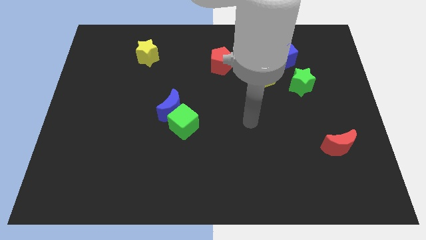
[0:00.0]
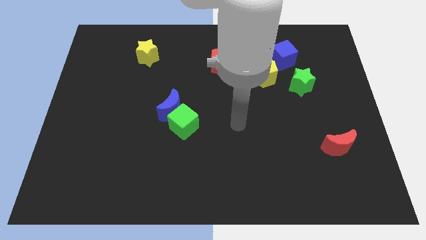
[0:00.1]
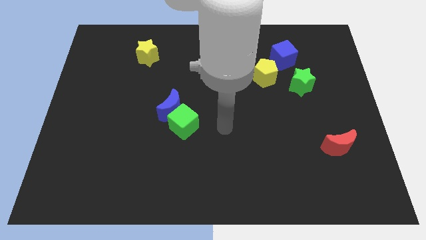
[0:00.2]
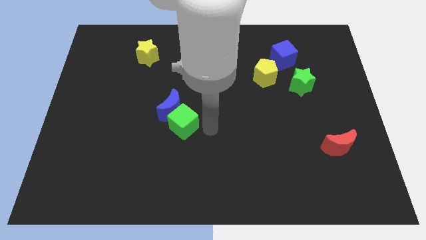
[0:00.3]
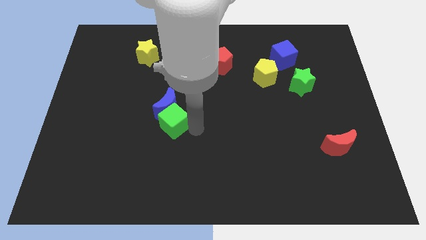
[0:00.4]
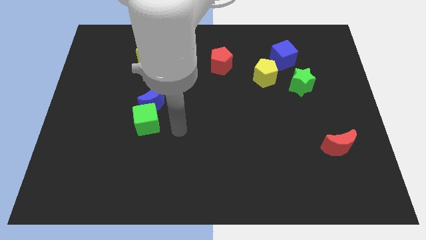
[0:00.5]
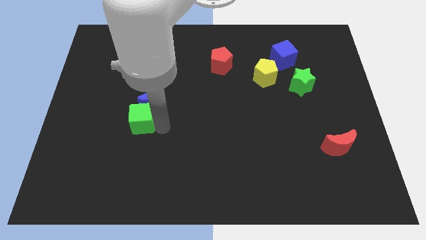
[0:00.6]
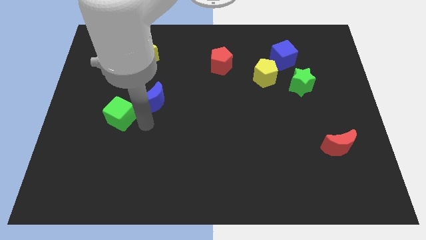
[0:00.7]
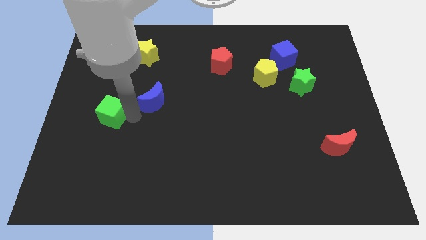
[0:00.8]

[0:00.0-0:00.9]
separate the blue moon from the green cube

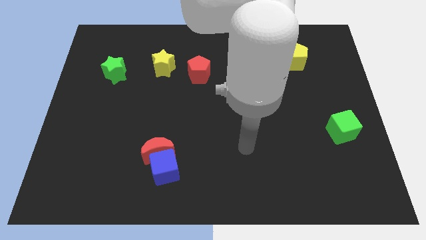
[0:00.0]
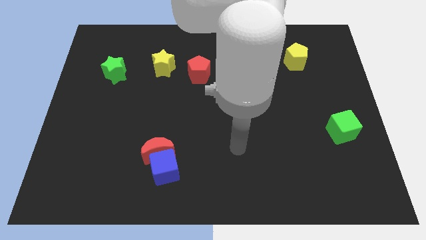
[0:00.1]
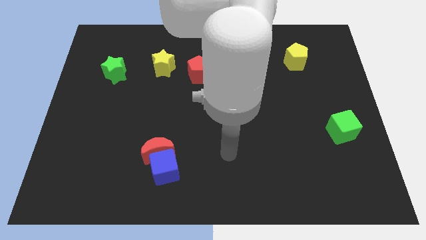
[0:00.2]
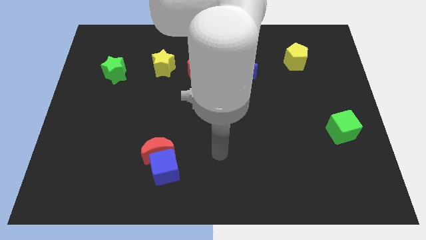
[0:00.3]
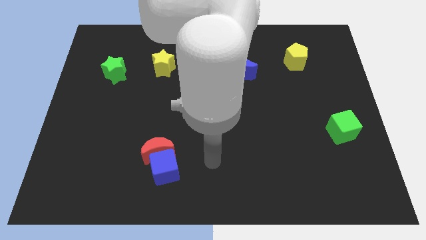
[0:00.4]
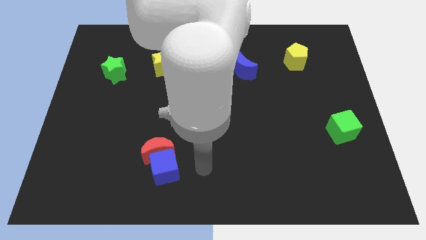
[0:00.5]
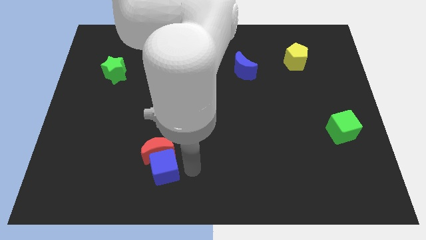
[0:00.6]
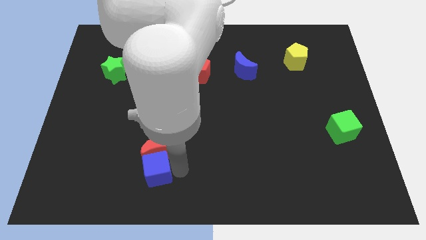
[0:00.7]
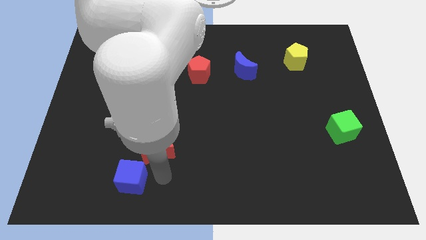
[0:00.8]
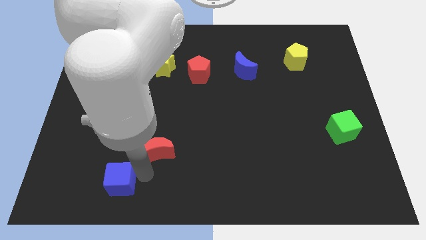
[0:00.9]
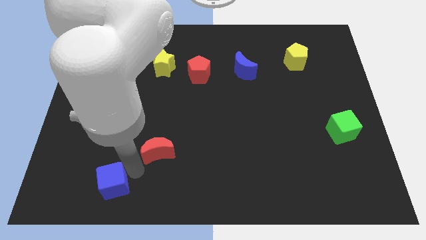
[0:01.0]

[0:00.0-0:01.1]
separate the red moon from the blue cube

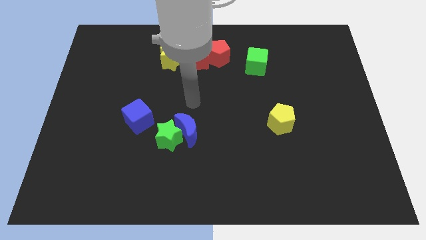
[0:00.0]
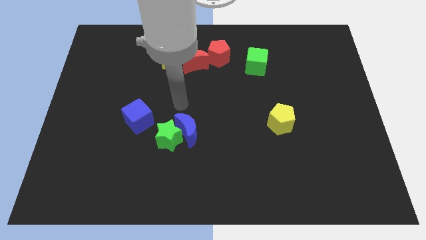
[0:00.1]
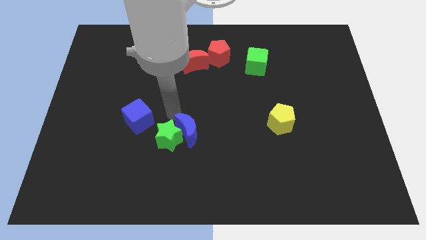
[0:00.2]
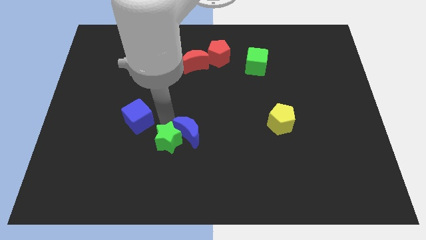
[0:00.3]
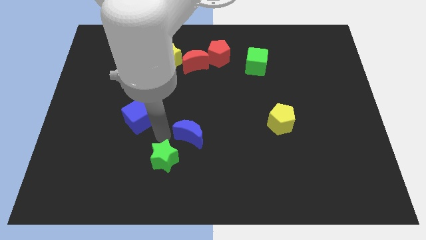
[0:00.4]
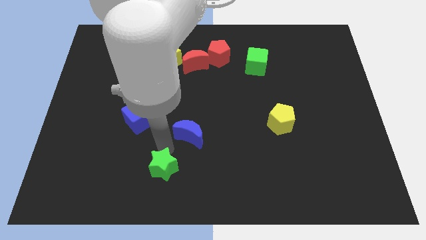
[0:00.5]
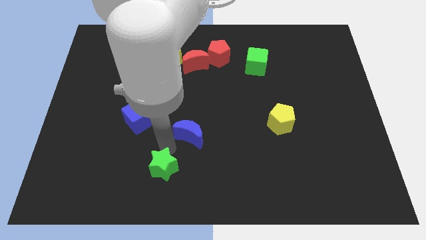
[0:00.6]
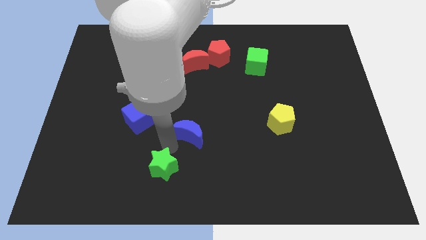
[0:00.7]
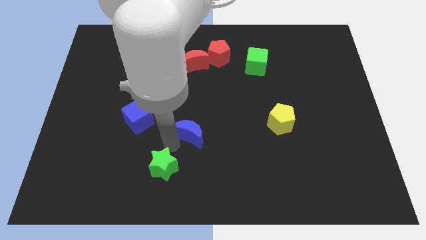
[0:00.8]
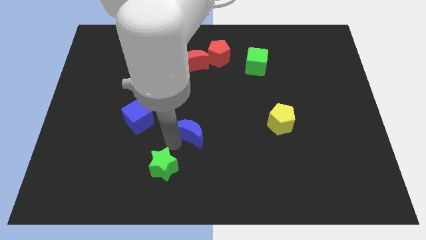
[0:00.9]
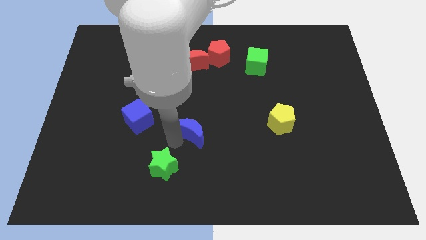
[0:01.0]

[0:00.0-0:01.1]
separate the blue moon from the green star

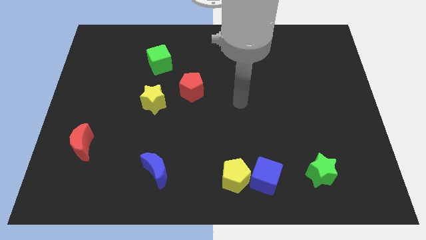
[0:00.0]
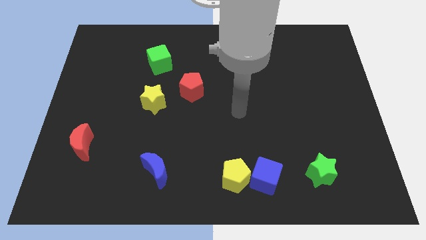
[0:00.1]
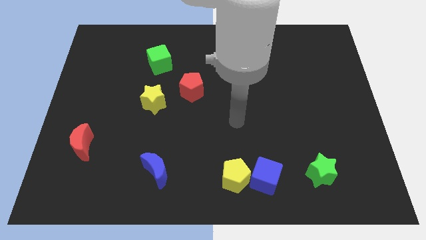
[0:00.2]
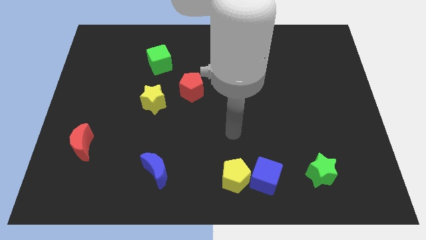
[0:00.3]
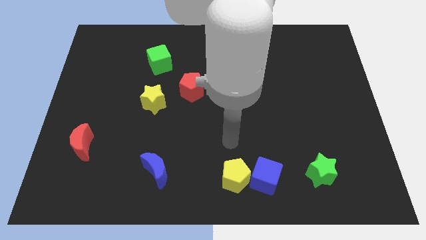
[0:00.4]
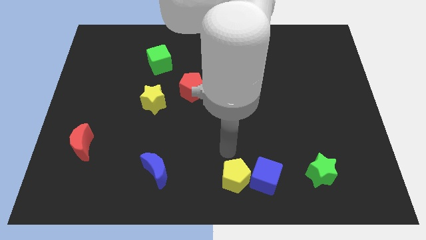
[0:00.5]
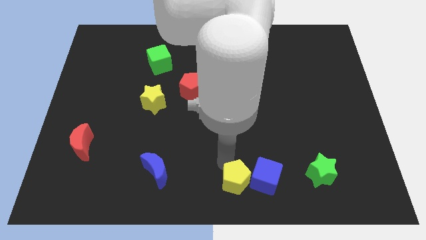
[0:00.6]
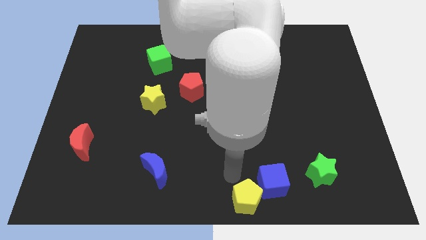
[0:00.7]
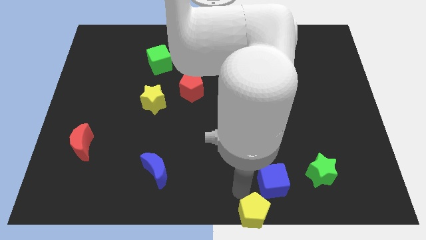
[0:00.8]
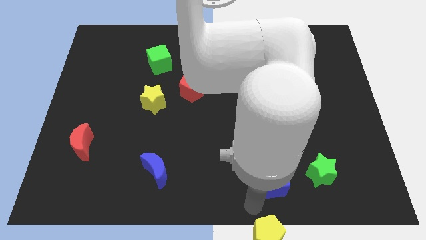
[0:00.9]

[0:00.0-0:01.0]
separate the blue cube from the yellow pentagon

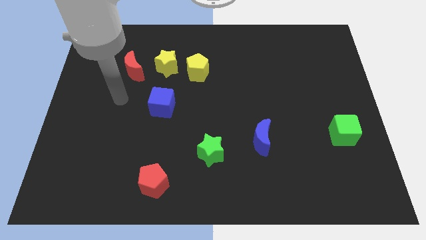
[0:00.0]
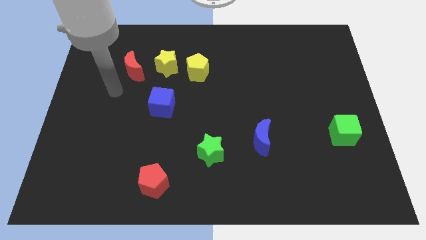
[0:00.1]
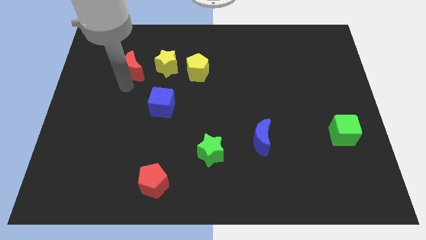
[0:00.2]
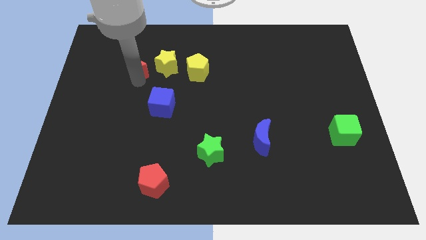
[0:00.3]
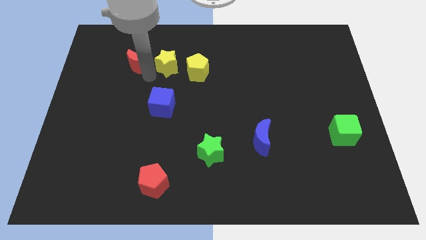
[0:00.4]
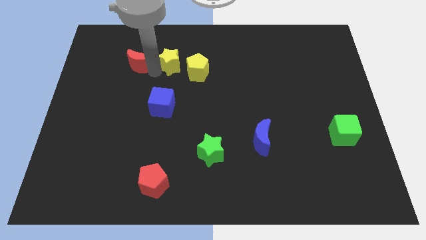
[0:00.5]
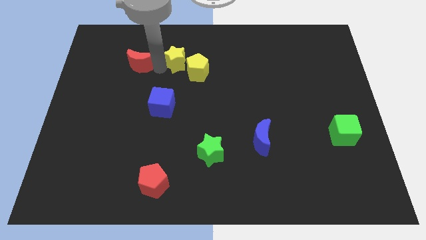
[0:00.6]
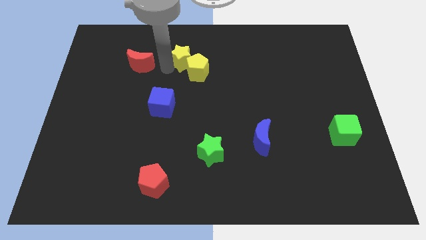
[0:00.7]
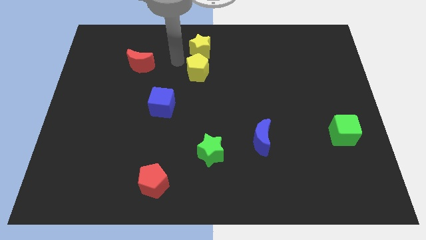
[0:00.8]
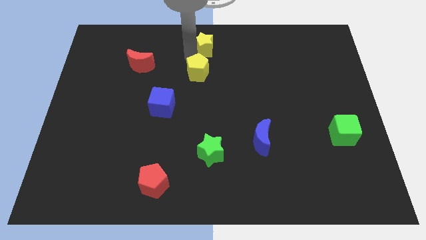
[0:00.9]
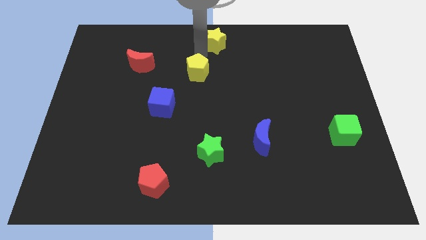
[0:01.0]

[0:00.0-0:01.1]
separate the yellow pentagon from the yellow star

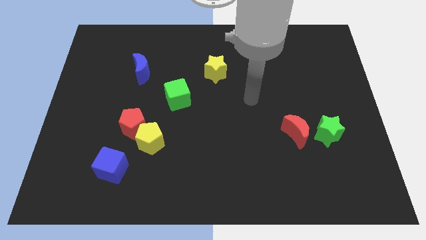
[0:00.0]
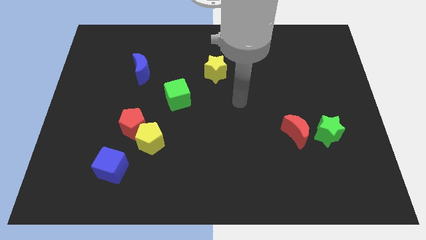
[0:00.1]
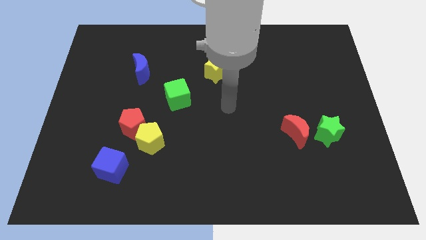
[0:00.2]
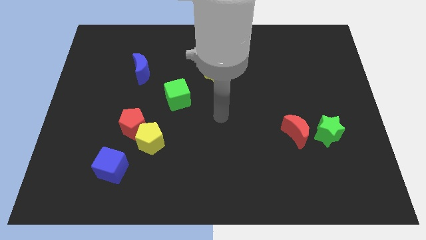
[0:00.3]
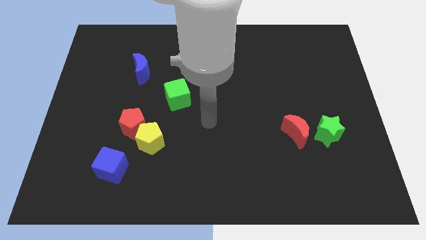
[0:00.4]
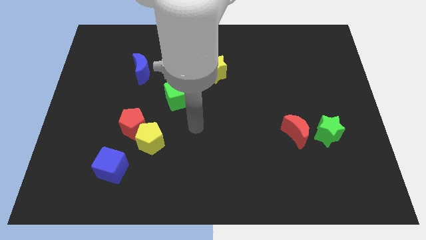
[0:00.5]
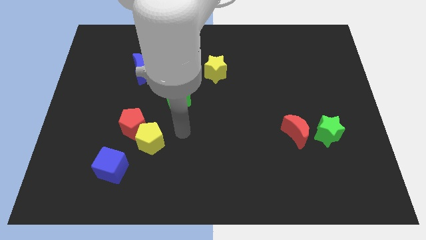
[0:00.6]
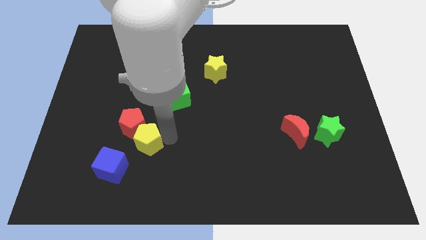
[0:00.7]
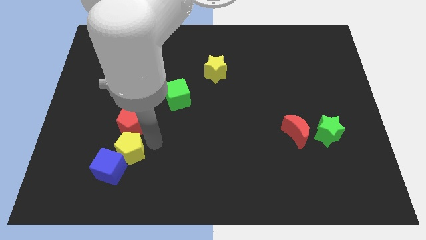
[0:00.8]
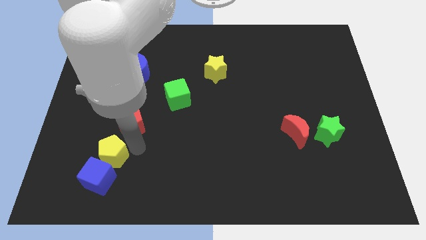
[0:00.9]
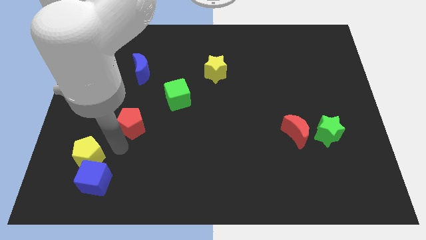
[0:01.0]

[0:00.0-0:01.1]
move the red pentagon away from the yellow pentagon

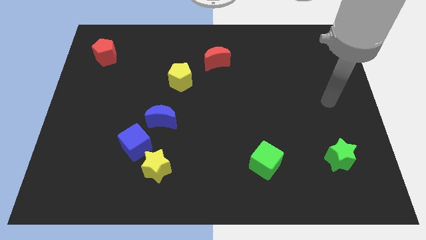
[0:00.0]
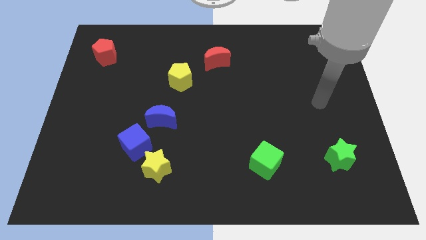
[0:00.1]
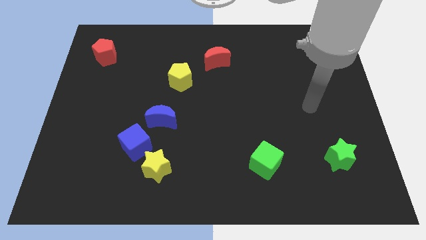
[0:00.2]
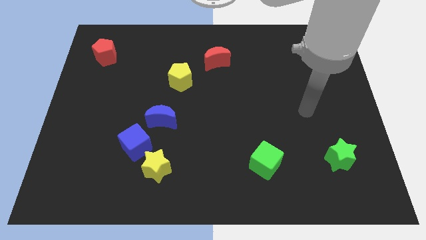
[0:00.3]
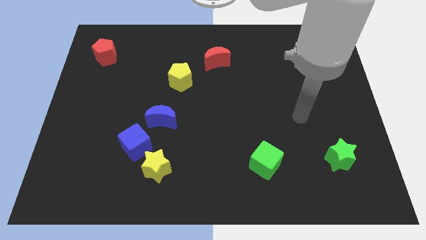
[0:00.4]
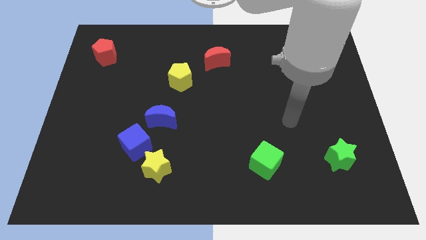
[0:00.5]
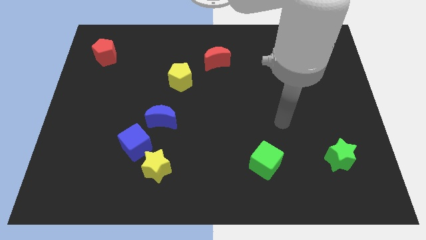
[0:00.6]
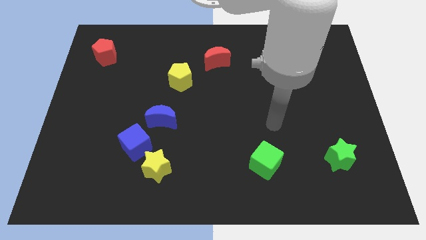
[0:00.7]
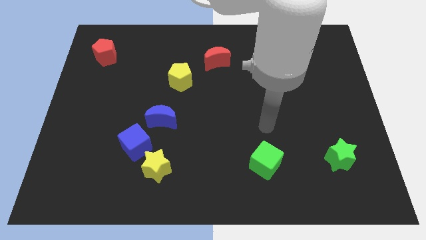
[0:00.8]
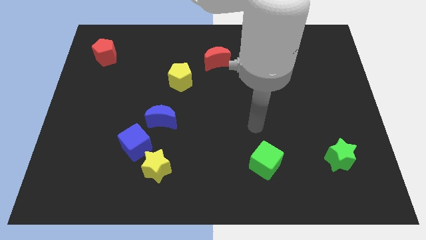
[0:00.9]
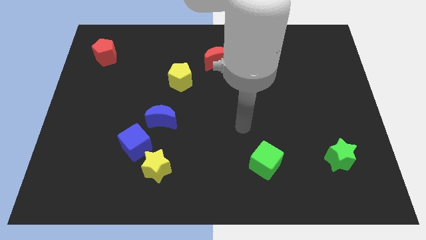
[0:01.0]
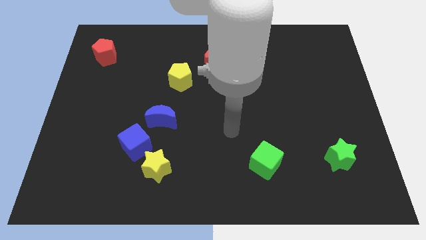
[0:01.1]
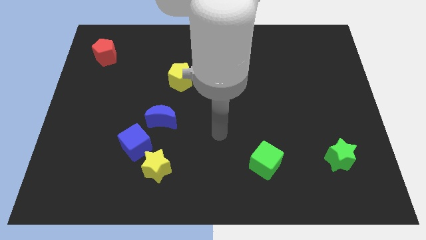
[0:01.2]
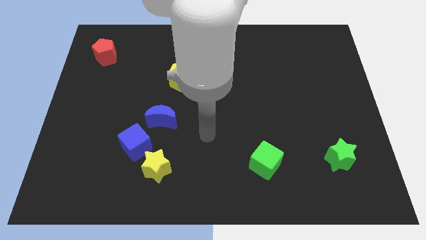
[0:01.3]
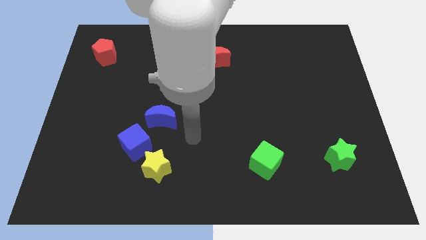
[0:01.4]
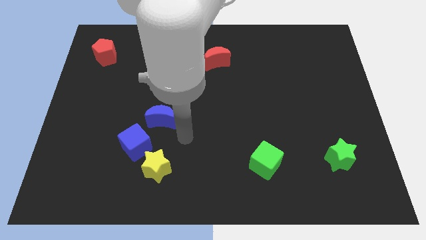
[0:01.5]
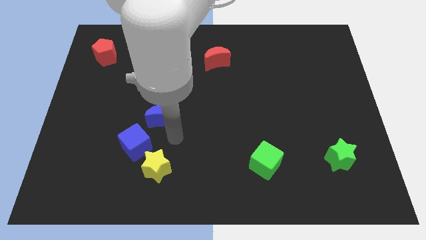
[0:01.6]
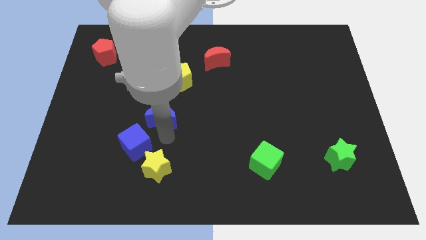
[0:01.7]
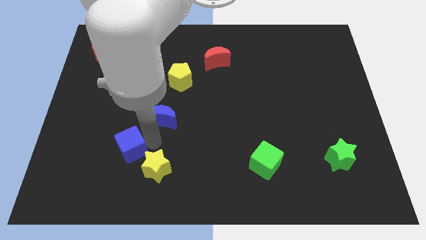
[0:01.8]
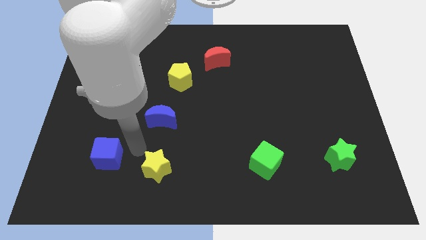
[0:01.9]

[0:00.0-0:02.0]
separate the yellow star from the blue cube

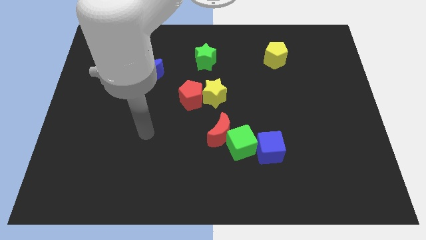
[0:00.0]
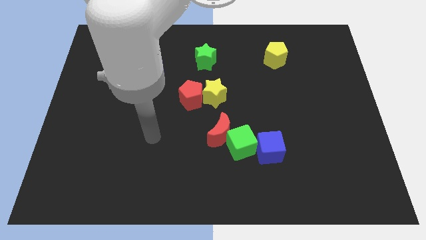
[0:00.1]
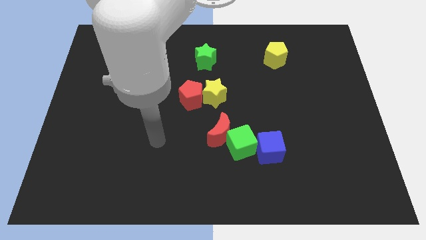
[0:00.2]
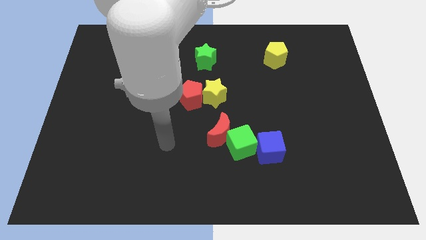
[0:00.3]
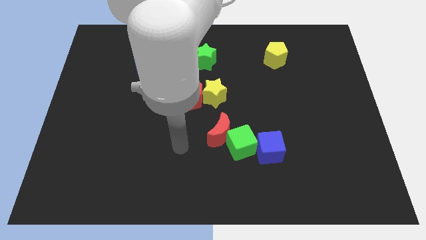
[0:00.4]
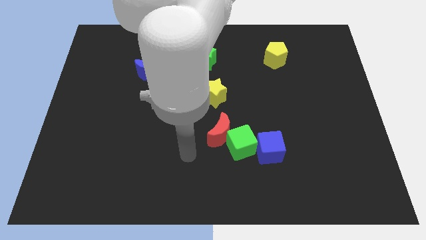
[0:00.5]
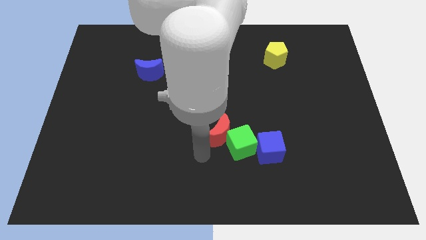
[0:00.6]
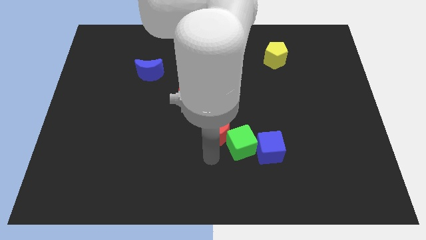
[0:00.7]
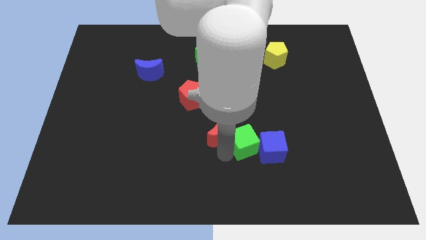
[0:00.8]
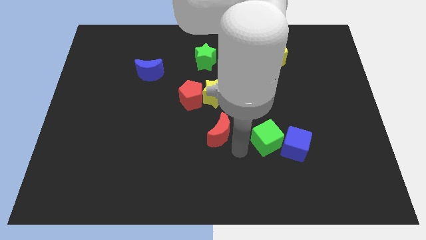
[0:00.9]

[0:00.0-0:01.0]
pull the red moon apart from the green cube
